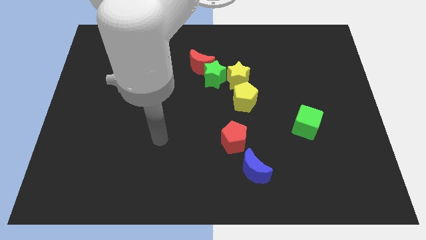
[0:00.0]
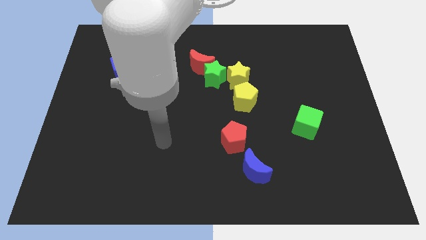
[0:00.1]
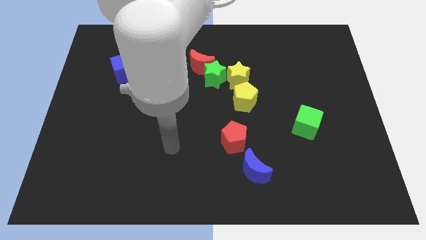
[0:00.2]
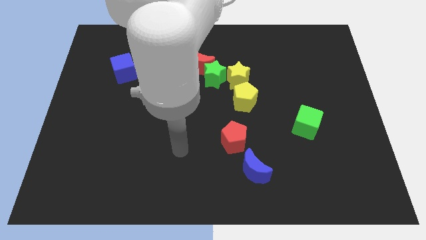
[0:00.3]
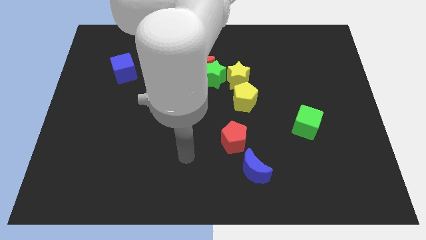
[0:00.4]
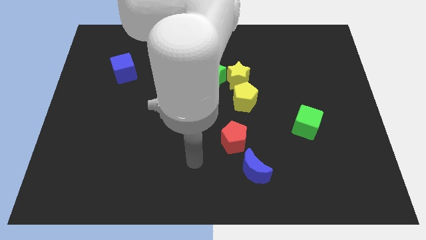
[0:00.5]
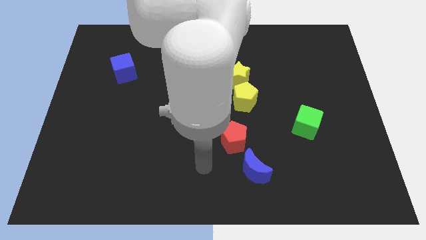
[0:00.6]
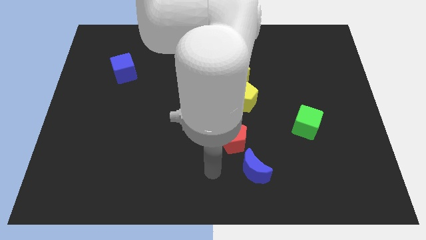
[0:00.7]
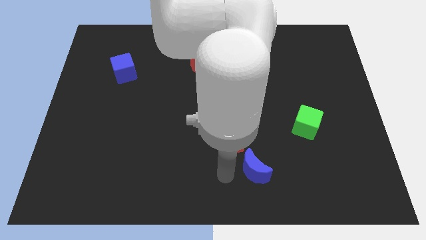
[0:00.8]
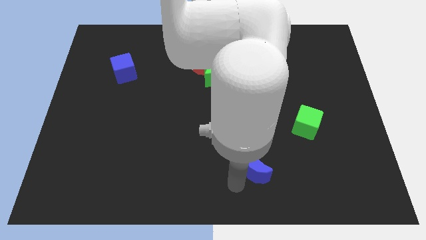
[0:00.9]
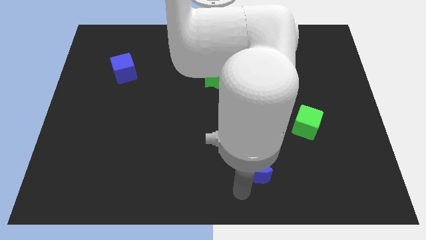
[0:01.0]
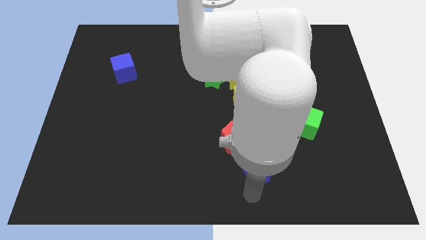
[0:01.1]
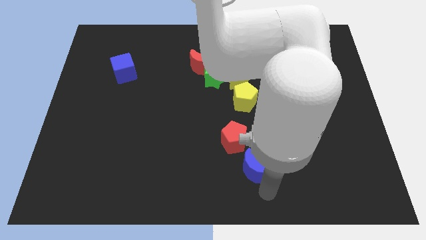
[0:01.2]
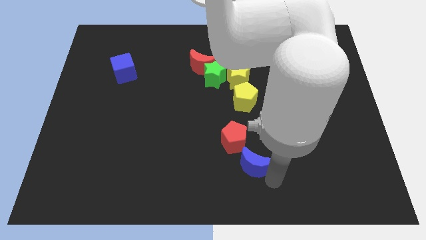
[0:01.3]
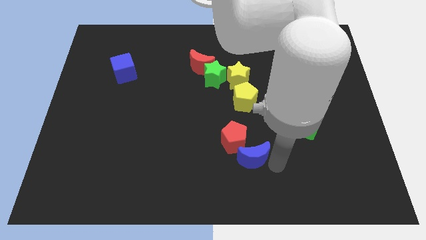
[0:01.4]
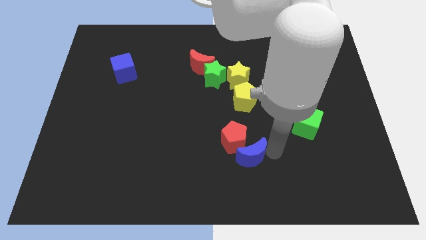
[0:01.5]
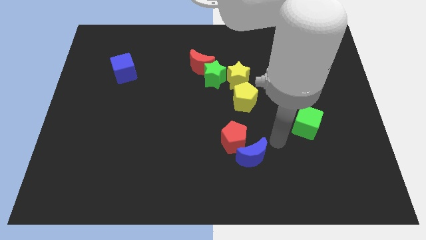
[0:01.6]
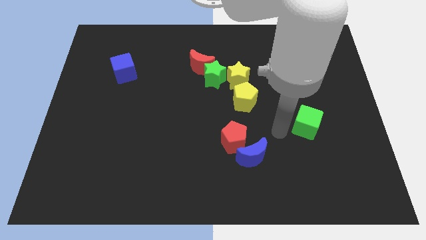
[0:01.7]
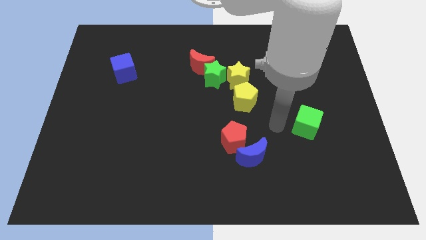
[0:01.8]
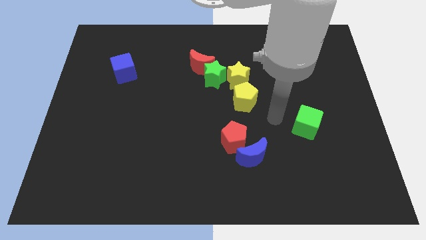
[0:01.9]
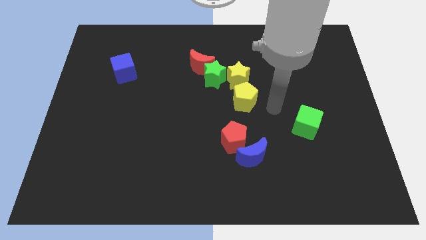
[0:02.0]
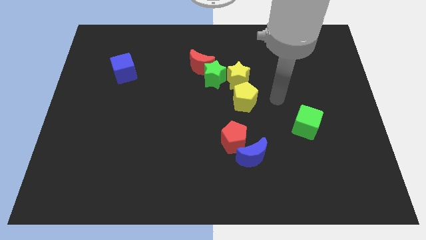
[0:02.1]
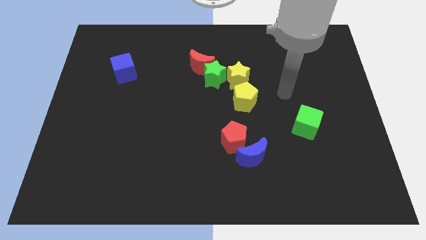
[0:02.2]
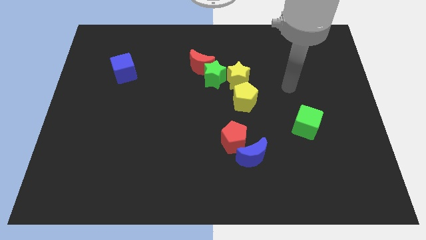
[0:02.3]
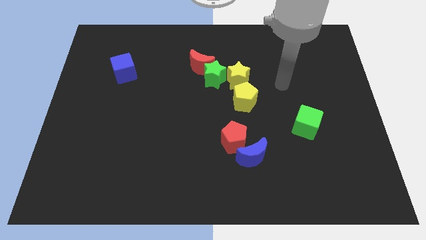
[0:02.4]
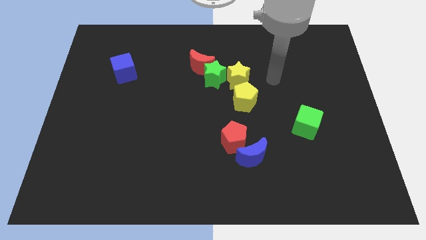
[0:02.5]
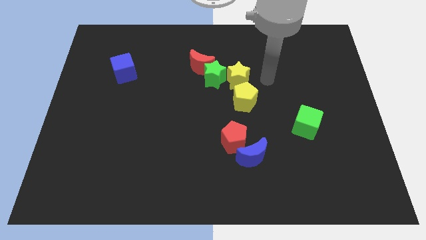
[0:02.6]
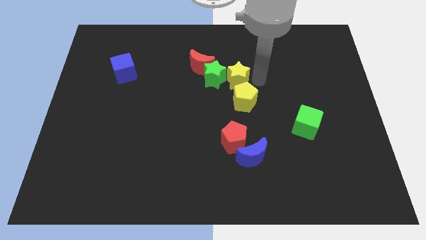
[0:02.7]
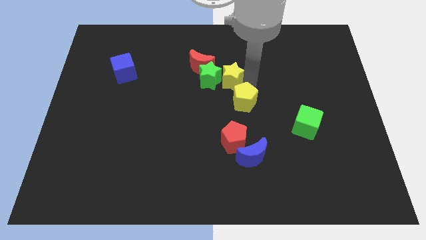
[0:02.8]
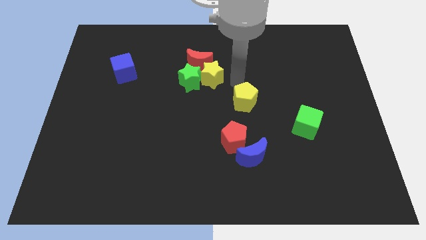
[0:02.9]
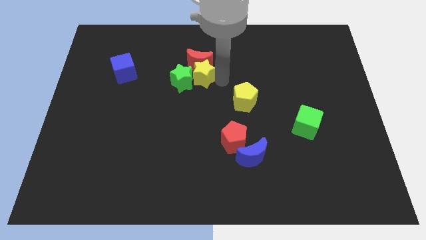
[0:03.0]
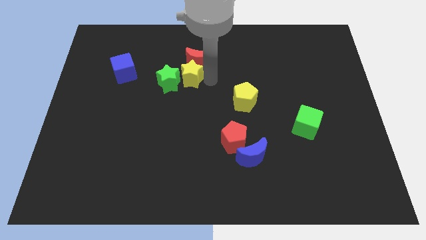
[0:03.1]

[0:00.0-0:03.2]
separate the green star from the group

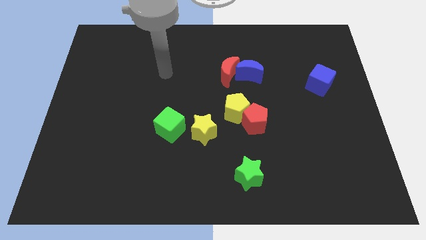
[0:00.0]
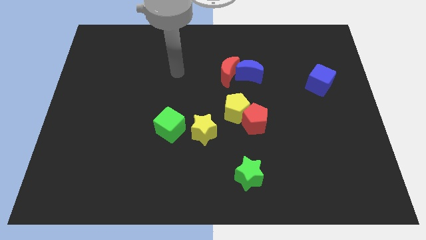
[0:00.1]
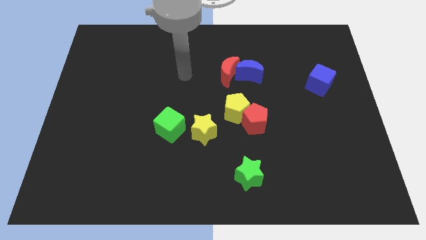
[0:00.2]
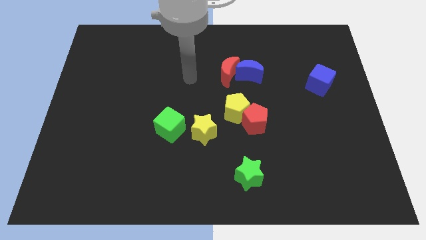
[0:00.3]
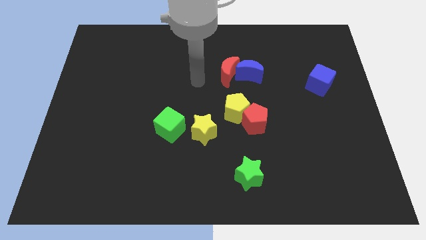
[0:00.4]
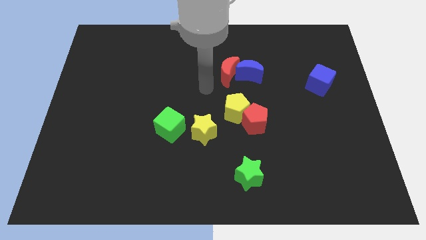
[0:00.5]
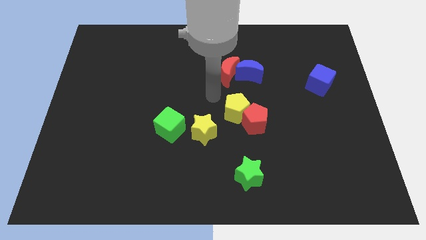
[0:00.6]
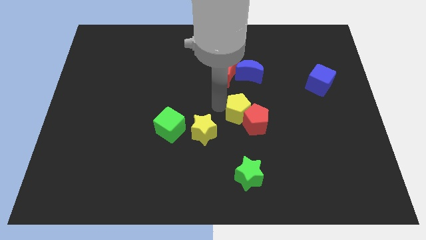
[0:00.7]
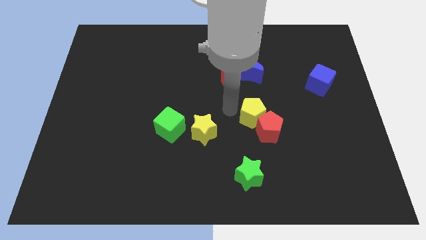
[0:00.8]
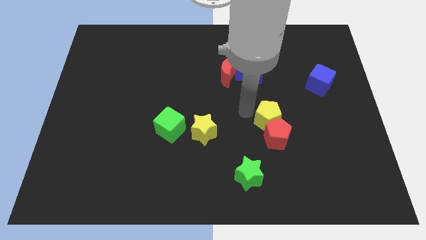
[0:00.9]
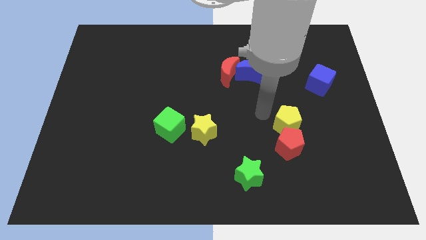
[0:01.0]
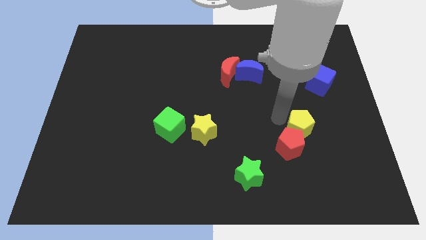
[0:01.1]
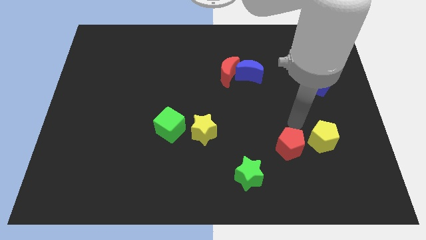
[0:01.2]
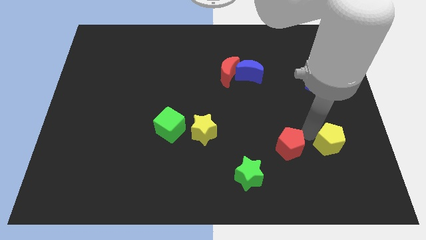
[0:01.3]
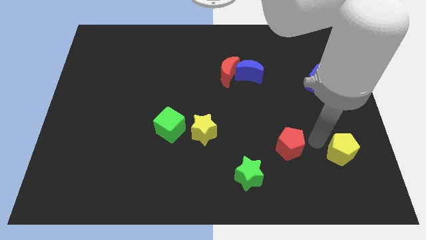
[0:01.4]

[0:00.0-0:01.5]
separate the red pentagon from the yellow pentagon

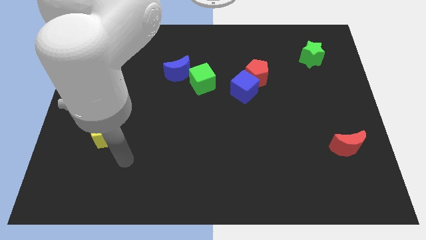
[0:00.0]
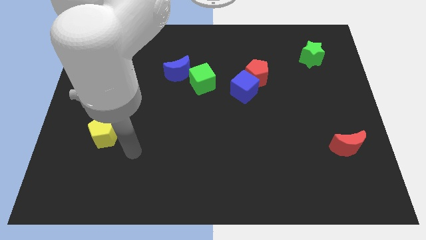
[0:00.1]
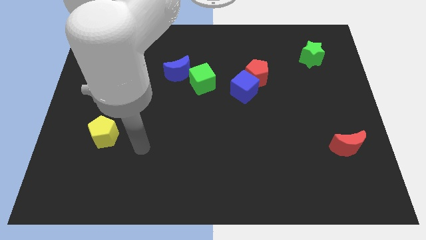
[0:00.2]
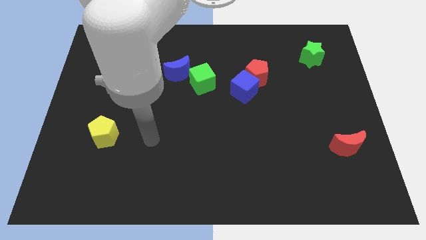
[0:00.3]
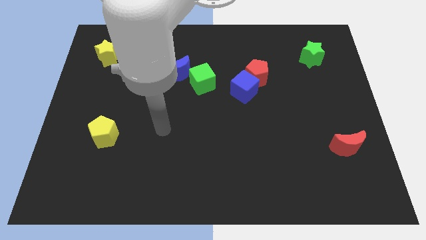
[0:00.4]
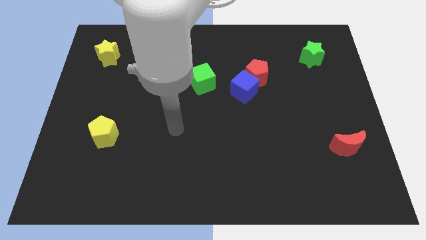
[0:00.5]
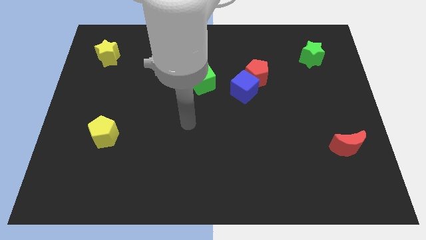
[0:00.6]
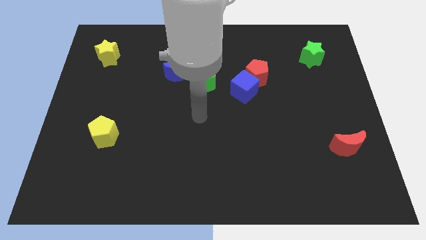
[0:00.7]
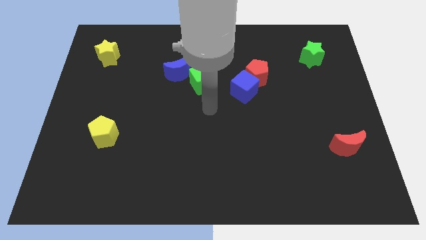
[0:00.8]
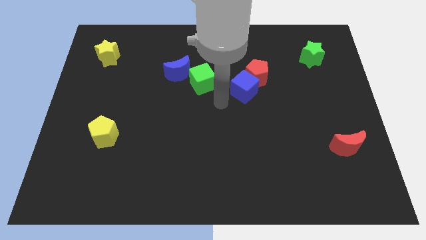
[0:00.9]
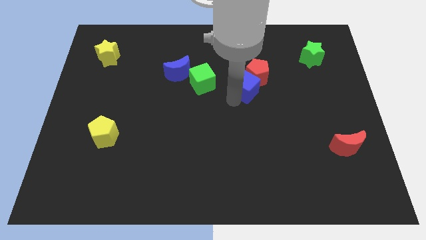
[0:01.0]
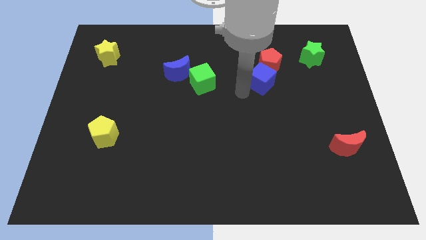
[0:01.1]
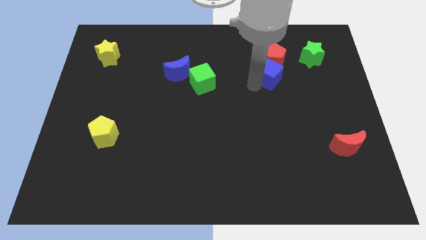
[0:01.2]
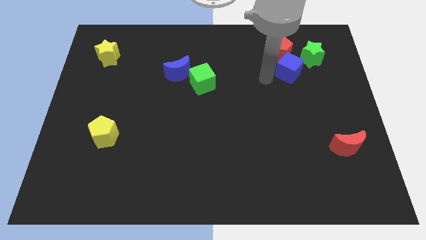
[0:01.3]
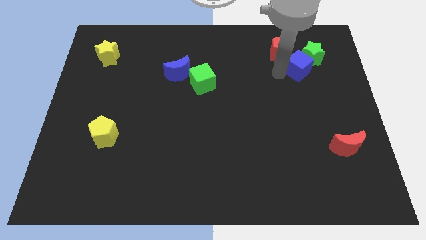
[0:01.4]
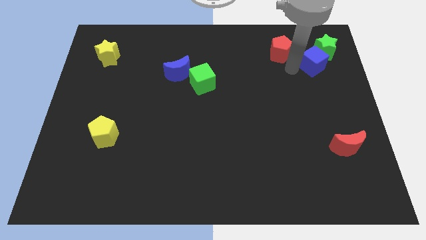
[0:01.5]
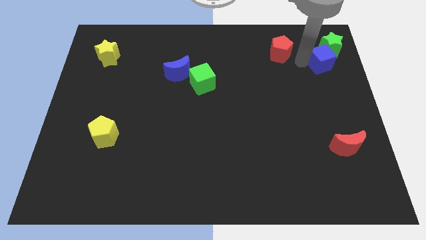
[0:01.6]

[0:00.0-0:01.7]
pull the red pentagon apart from the blue cube

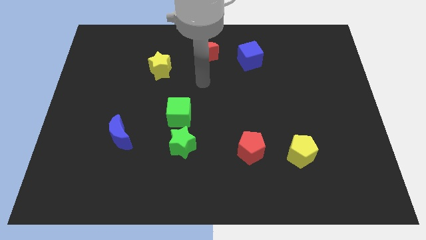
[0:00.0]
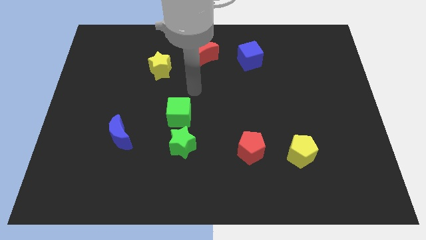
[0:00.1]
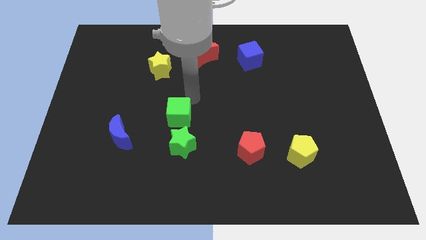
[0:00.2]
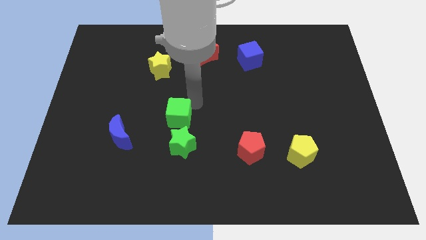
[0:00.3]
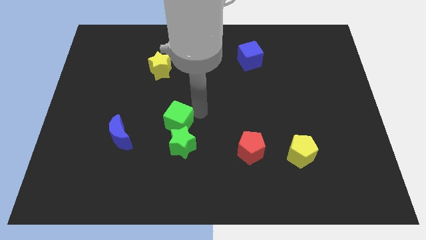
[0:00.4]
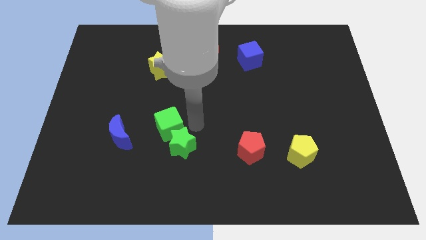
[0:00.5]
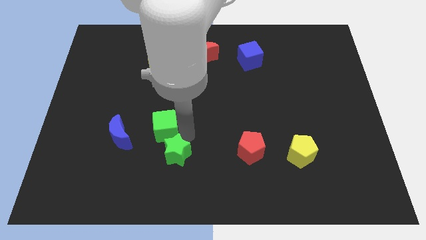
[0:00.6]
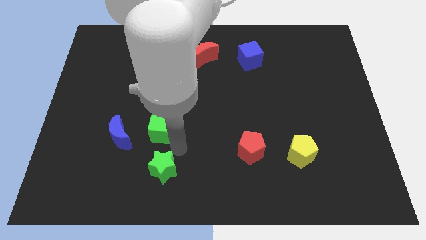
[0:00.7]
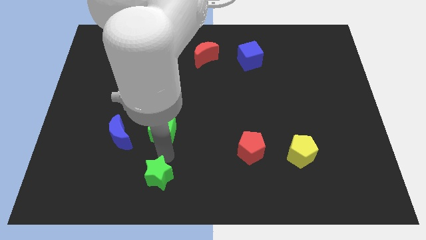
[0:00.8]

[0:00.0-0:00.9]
pull the green cube apart from the green star

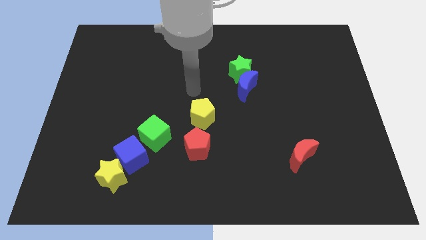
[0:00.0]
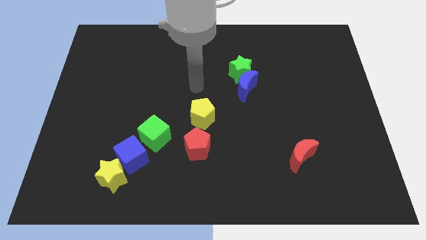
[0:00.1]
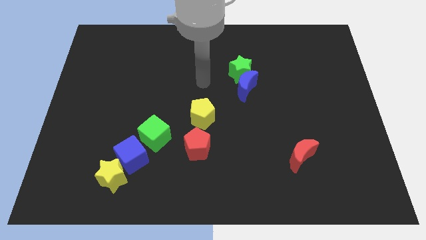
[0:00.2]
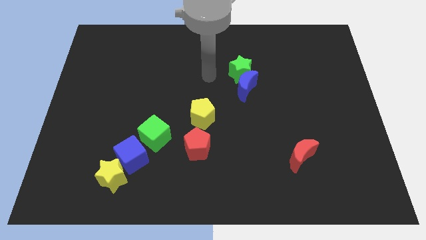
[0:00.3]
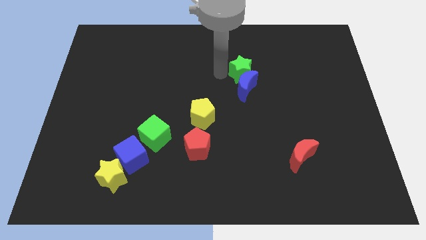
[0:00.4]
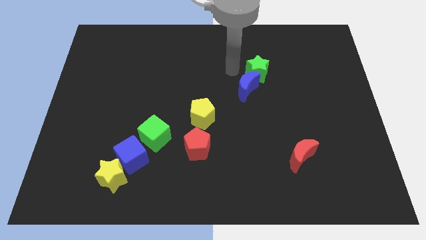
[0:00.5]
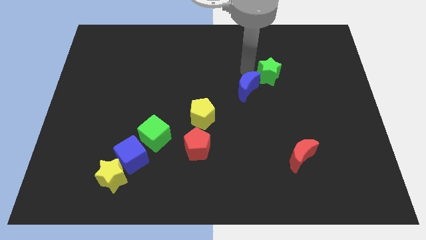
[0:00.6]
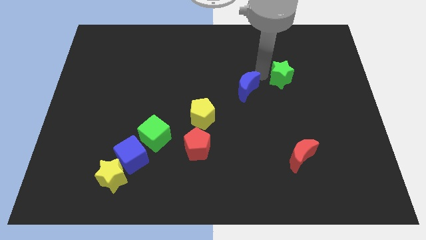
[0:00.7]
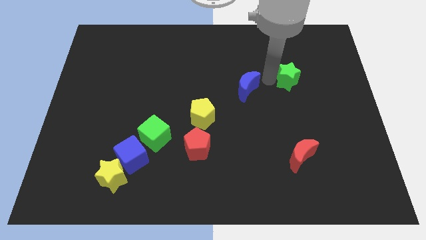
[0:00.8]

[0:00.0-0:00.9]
move the blue moon away from the green star

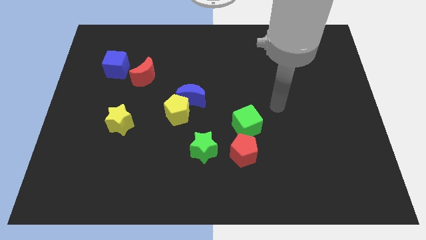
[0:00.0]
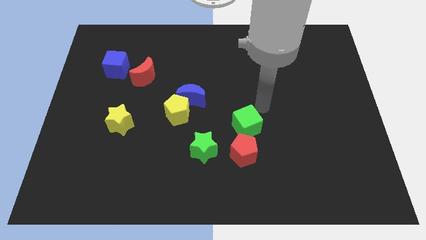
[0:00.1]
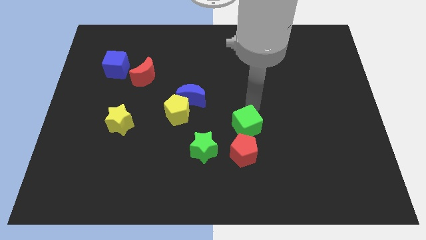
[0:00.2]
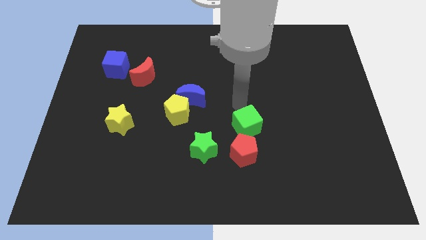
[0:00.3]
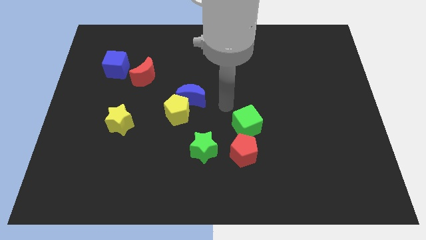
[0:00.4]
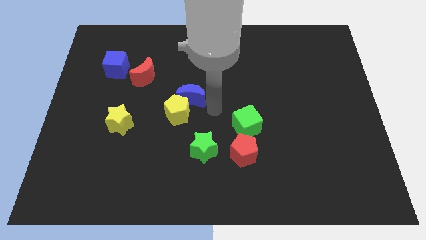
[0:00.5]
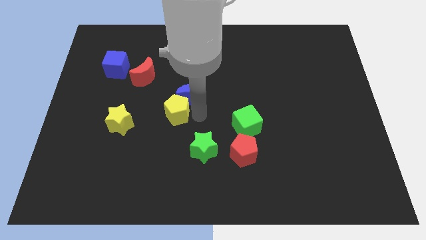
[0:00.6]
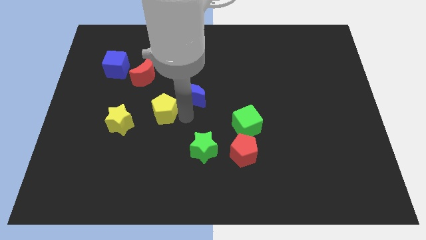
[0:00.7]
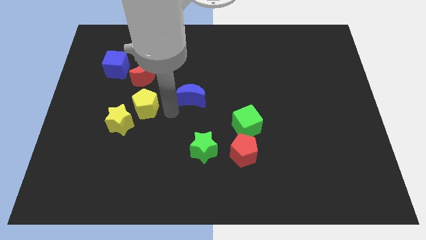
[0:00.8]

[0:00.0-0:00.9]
pull the blue moon apart from the yellow pentagon

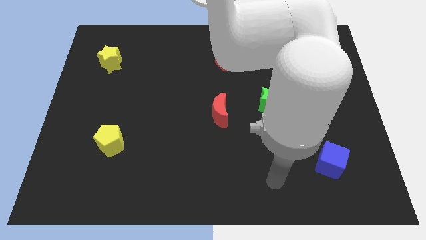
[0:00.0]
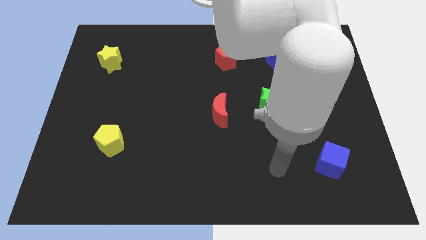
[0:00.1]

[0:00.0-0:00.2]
move the green cube away from the green star
